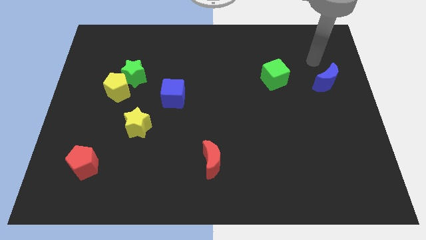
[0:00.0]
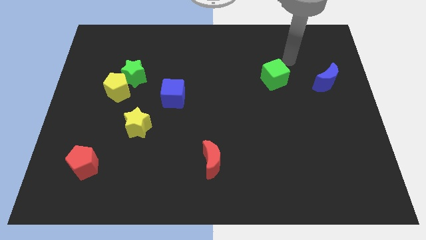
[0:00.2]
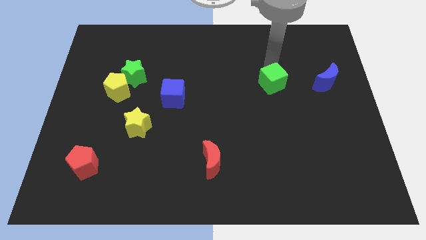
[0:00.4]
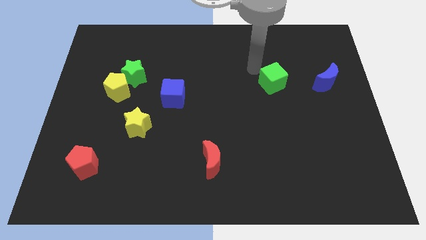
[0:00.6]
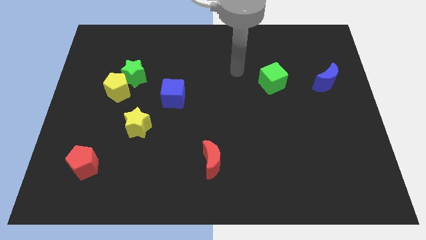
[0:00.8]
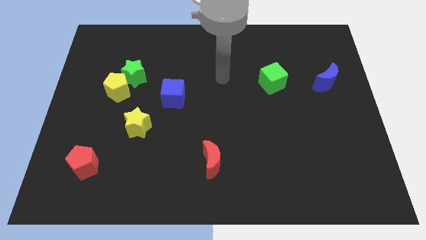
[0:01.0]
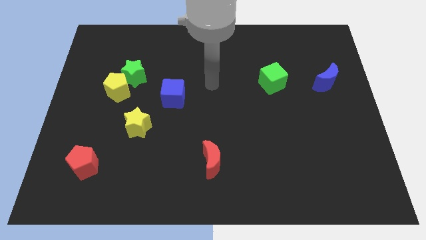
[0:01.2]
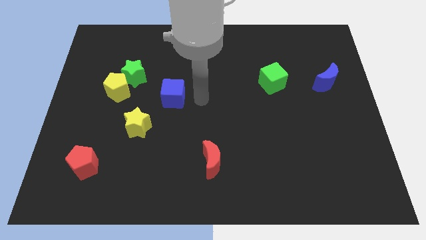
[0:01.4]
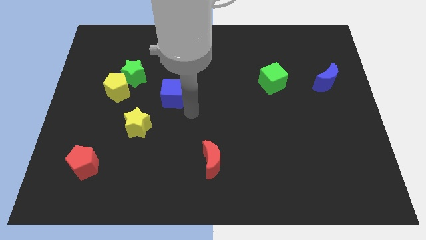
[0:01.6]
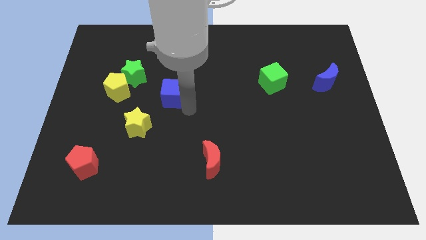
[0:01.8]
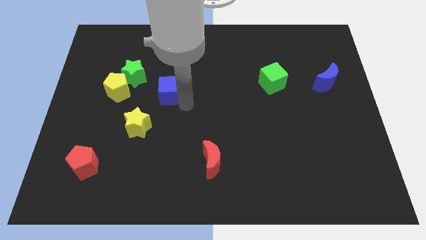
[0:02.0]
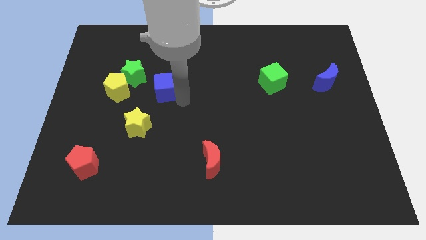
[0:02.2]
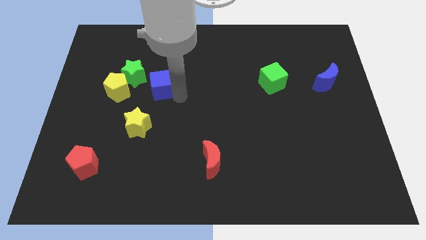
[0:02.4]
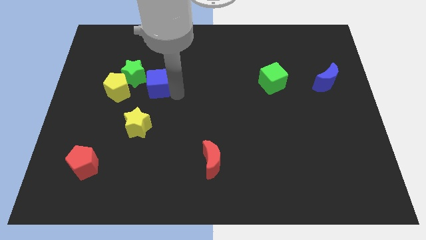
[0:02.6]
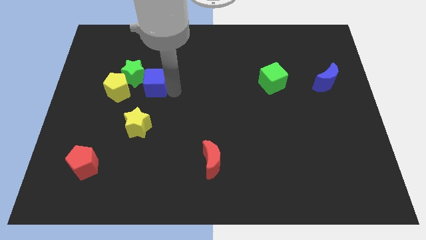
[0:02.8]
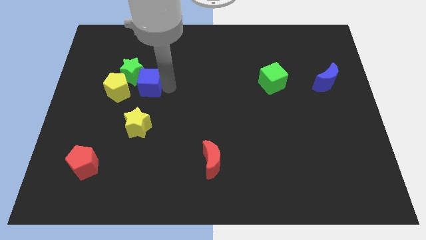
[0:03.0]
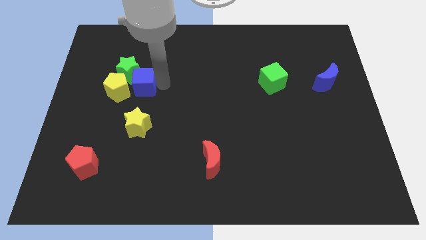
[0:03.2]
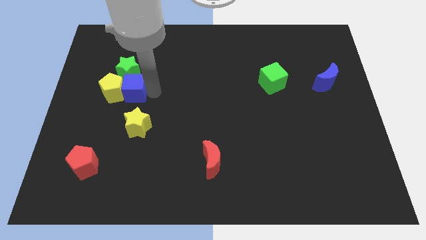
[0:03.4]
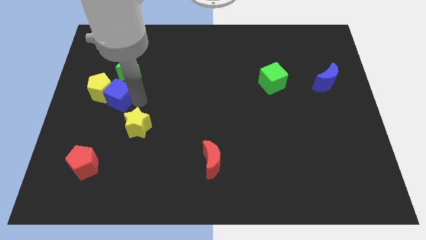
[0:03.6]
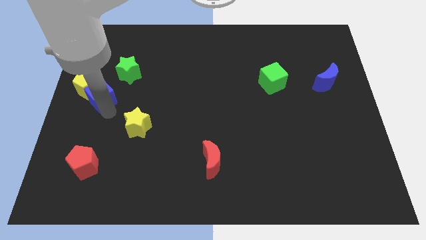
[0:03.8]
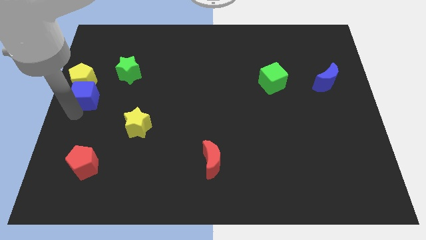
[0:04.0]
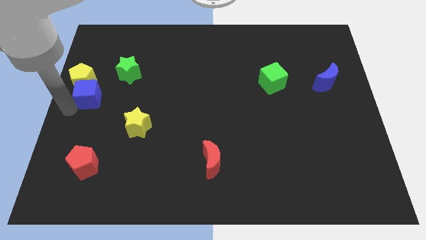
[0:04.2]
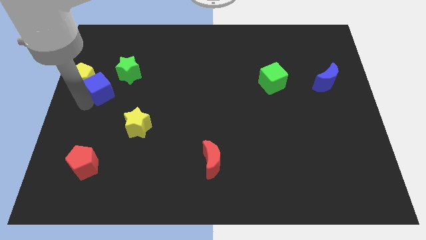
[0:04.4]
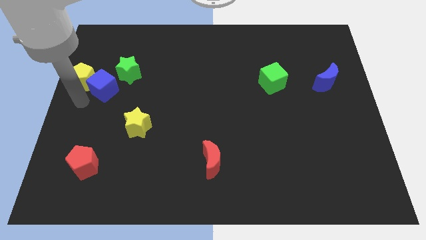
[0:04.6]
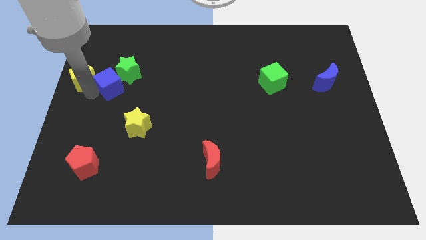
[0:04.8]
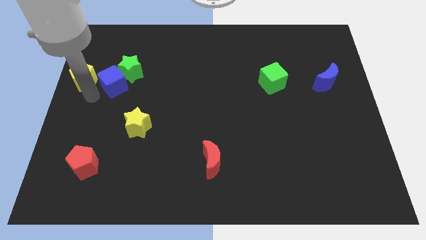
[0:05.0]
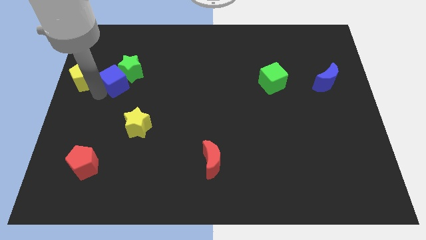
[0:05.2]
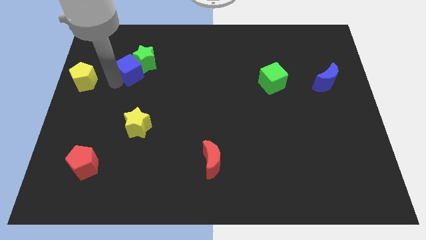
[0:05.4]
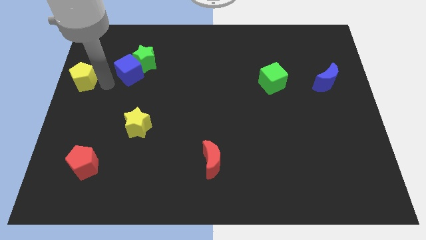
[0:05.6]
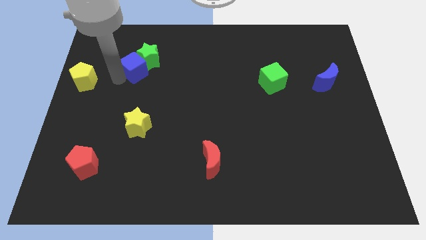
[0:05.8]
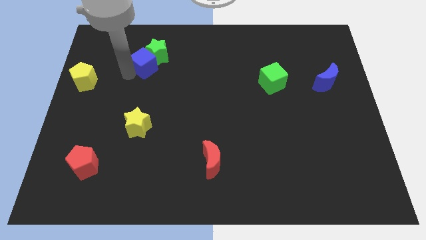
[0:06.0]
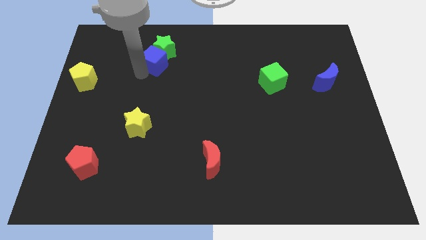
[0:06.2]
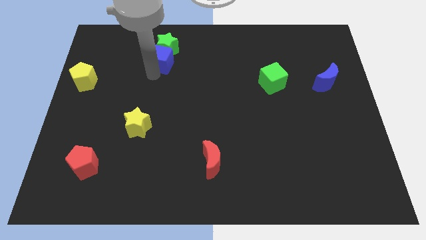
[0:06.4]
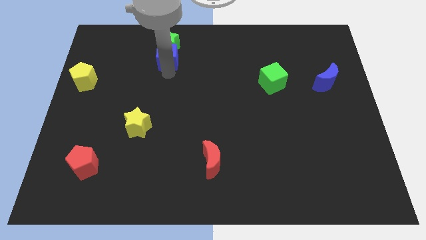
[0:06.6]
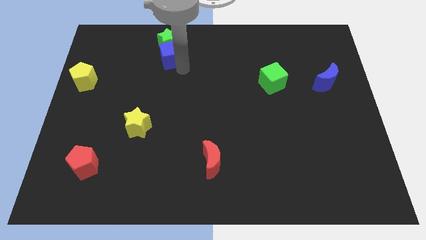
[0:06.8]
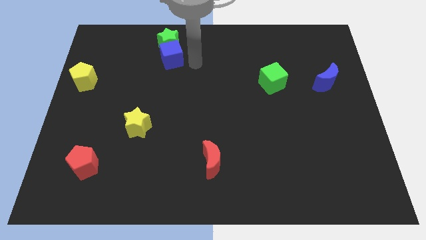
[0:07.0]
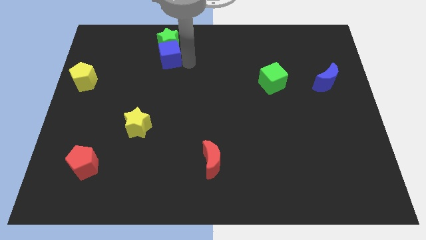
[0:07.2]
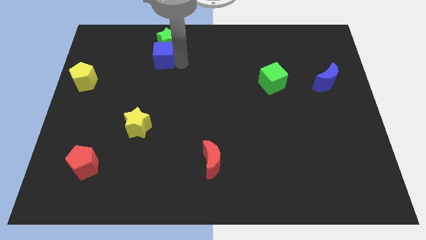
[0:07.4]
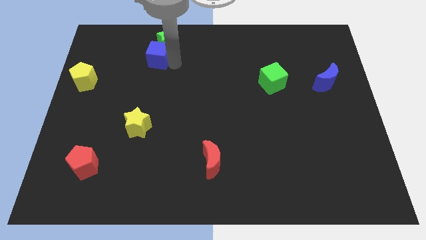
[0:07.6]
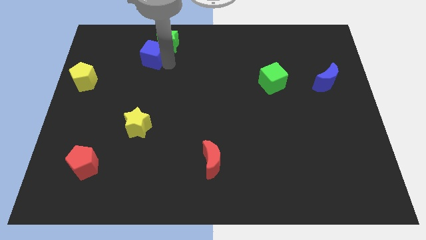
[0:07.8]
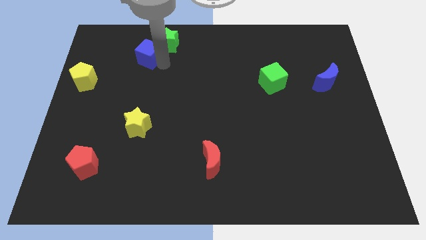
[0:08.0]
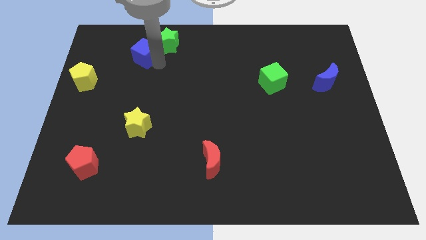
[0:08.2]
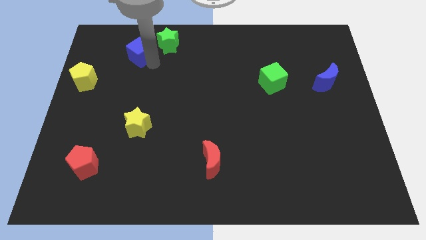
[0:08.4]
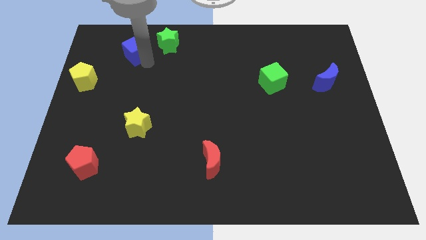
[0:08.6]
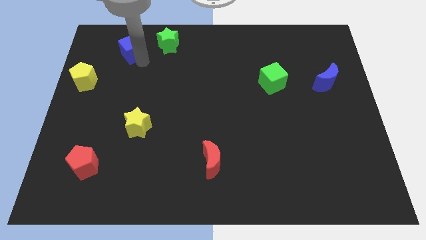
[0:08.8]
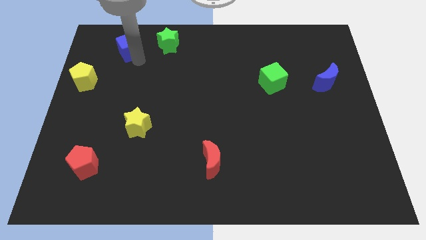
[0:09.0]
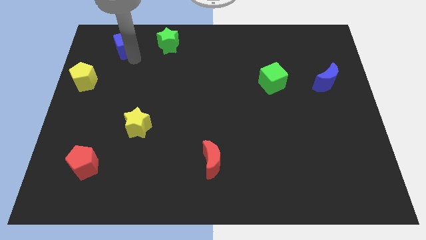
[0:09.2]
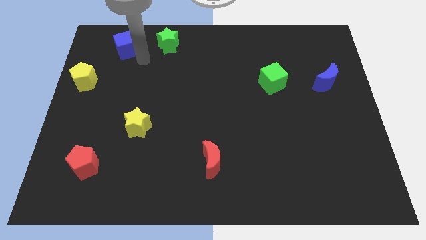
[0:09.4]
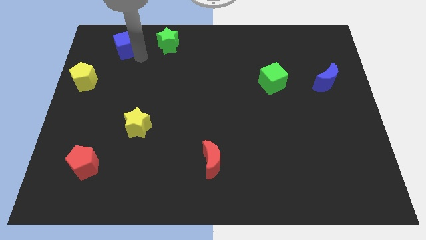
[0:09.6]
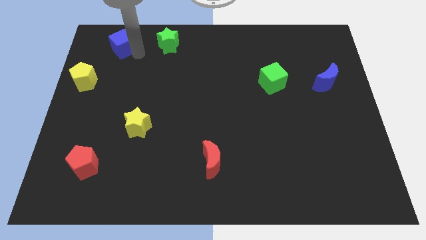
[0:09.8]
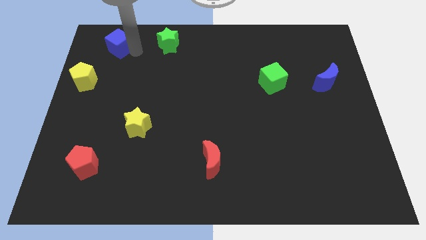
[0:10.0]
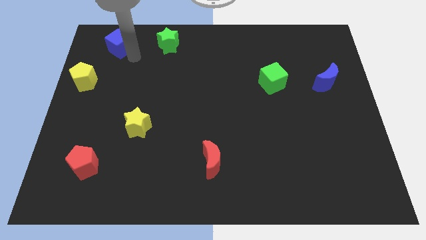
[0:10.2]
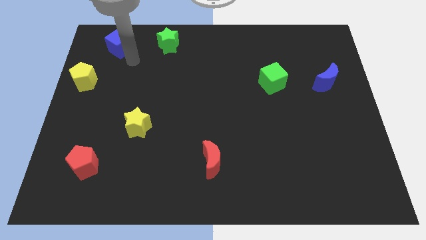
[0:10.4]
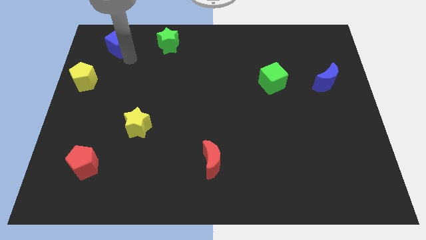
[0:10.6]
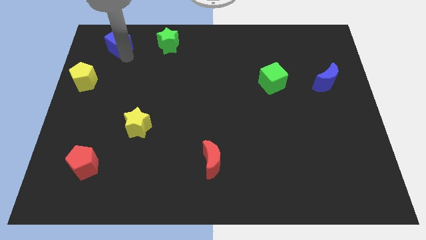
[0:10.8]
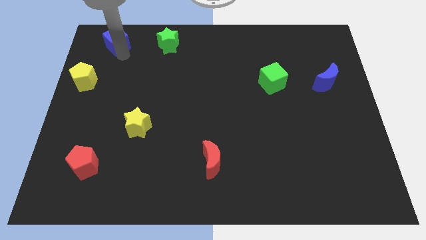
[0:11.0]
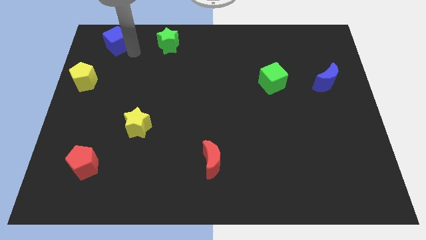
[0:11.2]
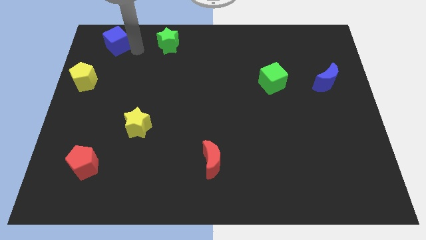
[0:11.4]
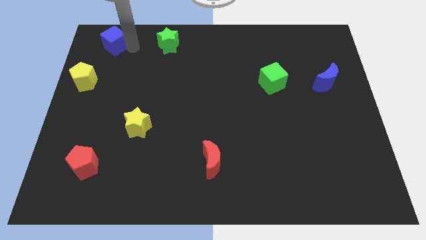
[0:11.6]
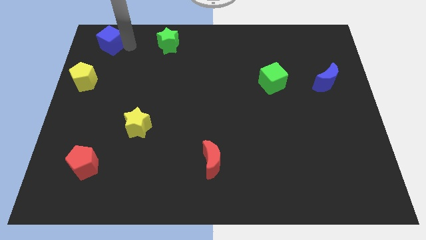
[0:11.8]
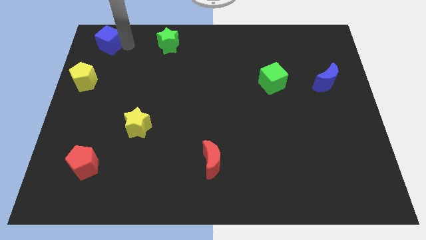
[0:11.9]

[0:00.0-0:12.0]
slide the blue cube to the upper left corner
